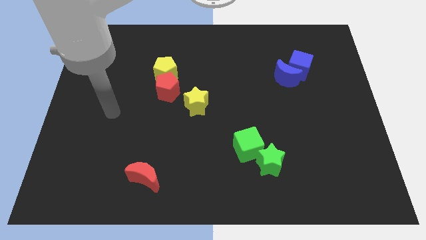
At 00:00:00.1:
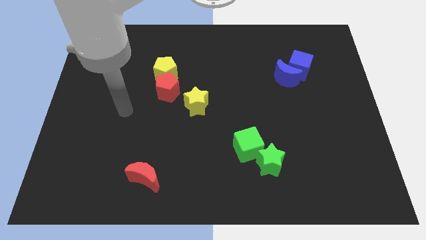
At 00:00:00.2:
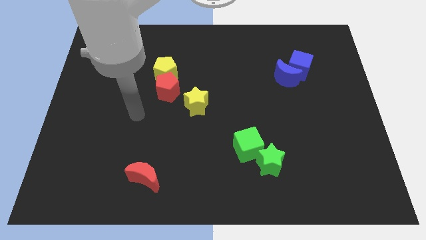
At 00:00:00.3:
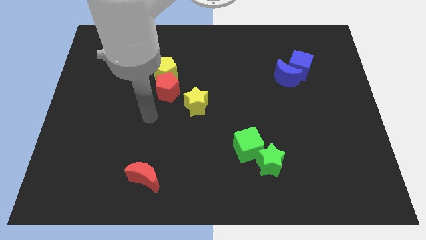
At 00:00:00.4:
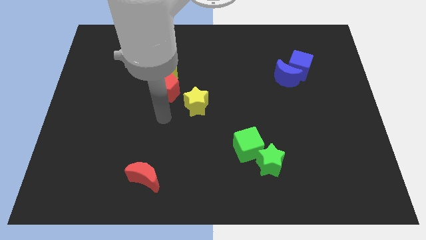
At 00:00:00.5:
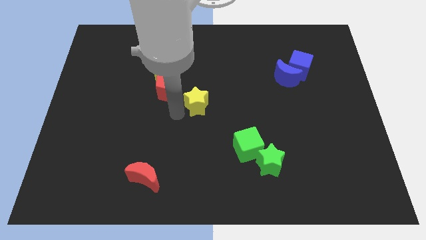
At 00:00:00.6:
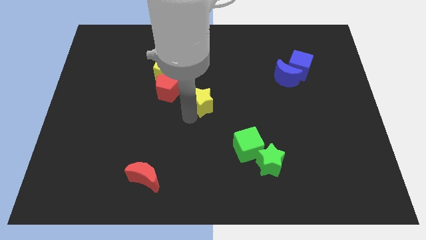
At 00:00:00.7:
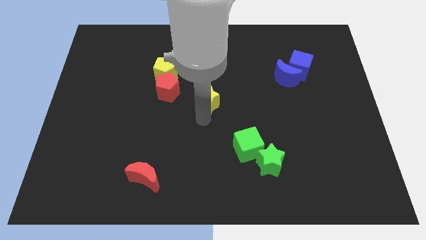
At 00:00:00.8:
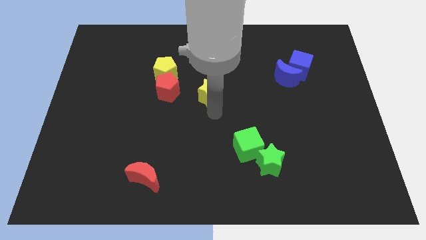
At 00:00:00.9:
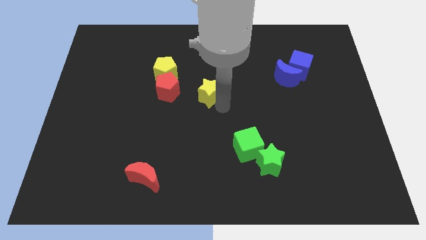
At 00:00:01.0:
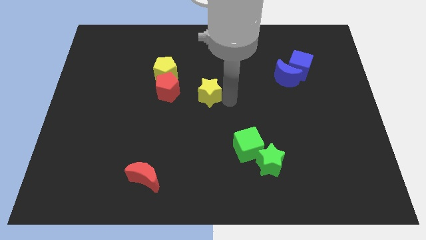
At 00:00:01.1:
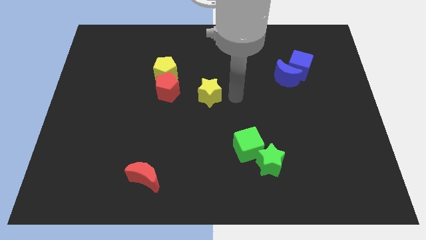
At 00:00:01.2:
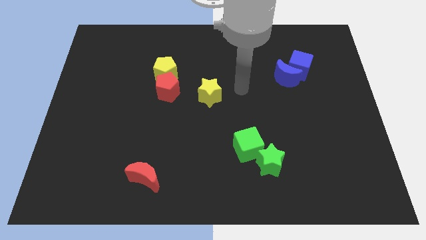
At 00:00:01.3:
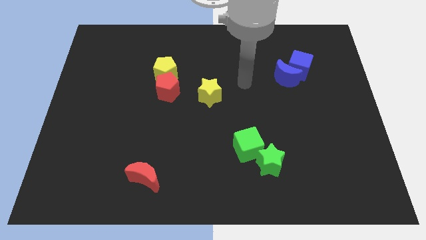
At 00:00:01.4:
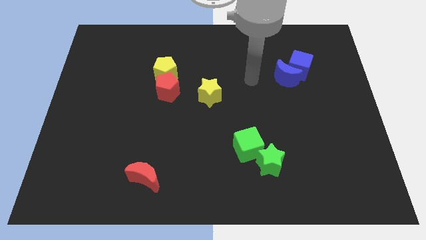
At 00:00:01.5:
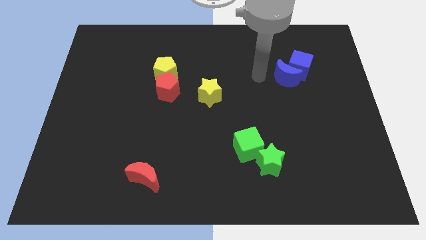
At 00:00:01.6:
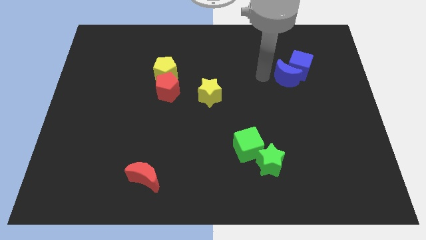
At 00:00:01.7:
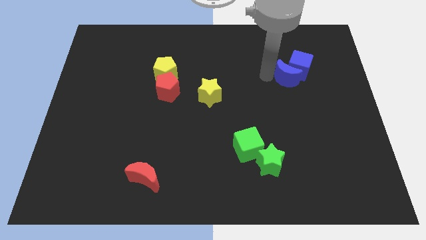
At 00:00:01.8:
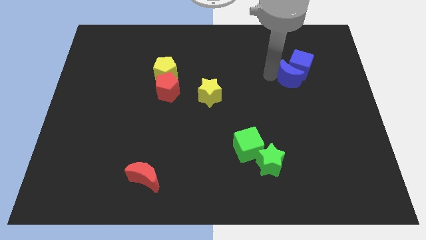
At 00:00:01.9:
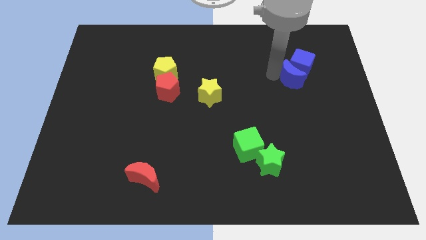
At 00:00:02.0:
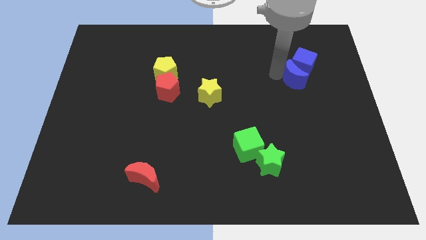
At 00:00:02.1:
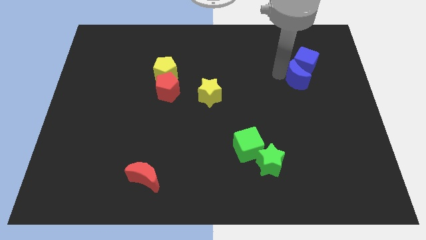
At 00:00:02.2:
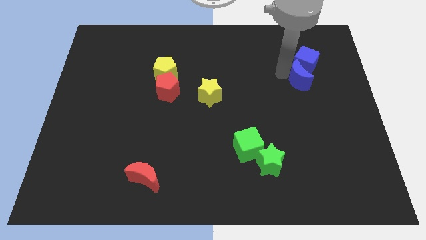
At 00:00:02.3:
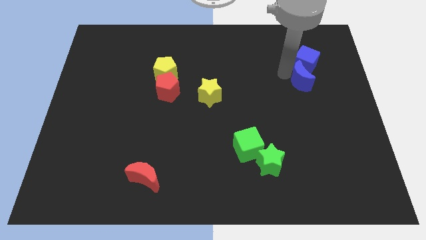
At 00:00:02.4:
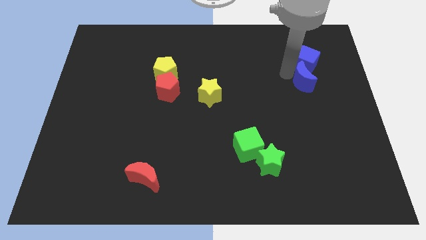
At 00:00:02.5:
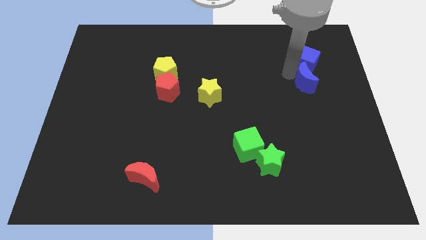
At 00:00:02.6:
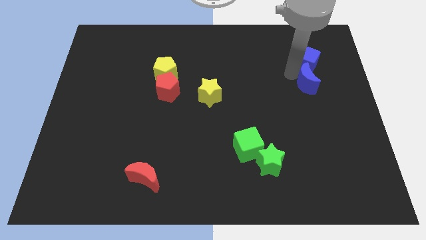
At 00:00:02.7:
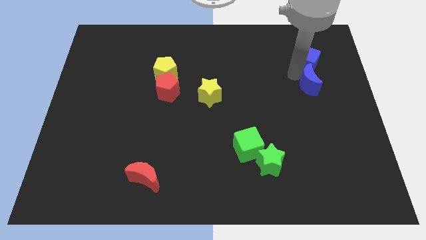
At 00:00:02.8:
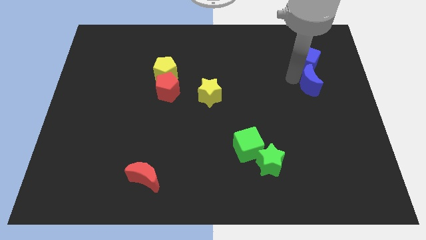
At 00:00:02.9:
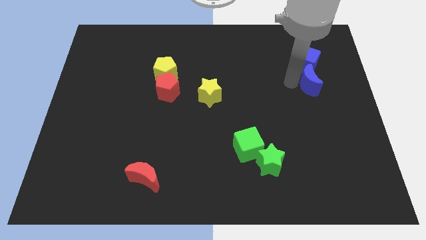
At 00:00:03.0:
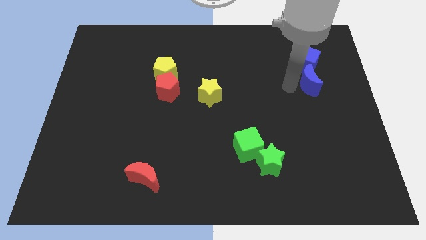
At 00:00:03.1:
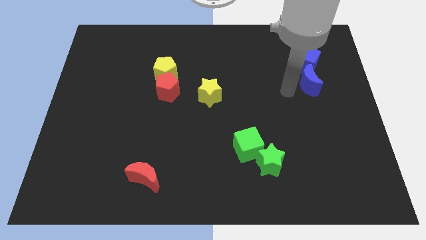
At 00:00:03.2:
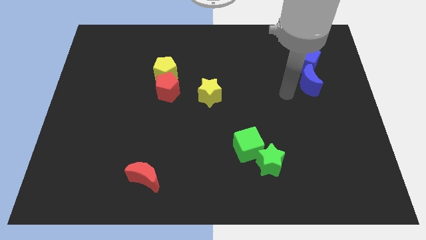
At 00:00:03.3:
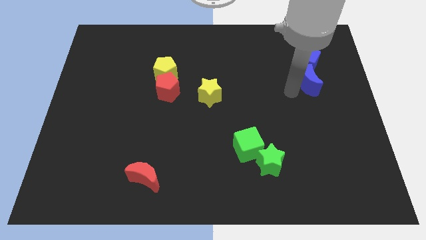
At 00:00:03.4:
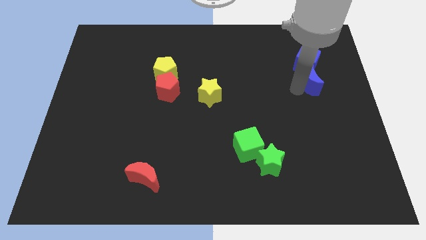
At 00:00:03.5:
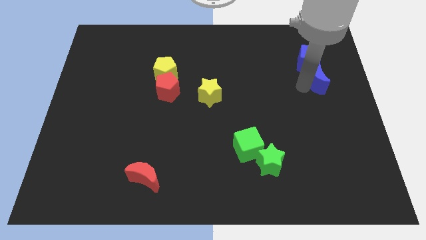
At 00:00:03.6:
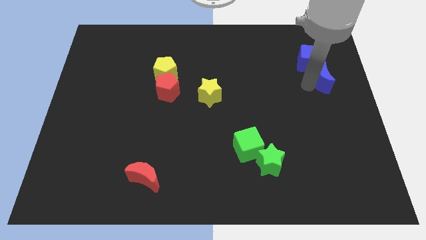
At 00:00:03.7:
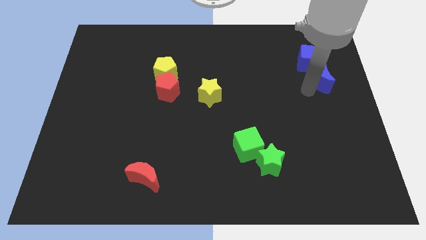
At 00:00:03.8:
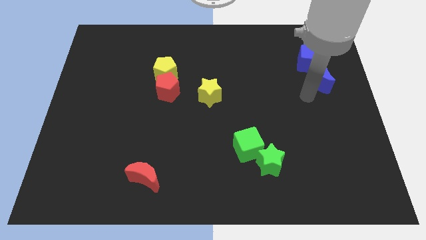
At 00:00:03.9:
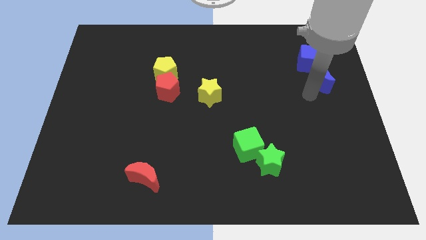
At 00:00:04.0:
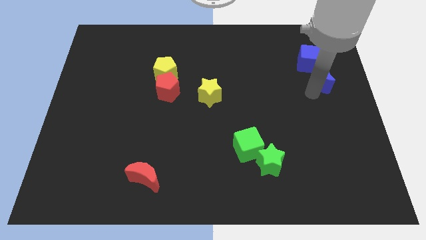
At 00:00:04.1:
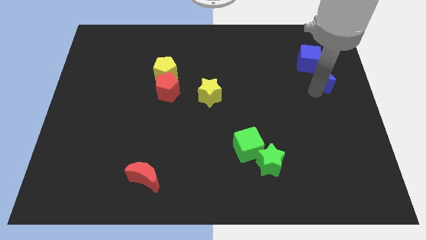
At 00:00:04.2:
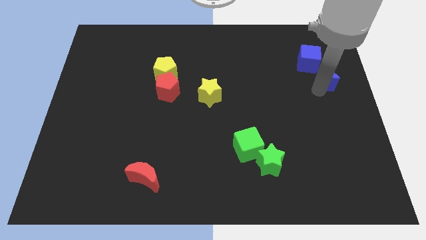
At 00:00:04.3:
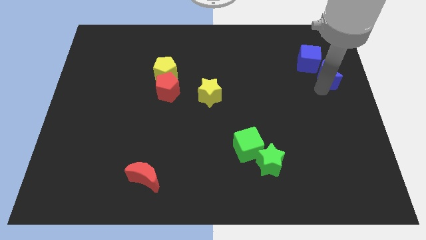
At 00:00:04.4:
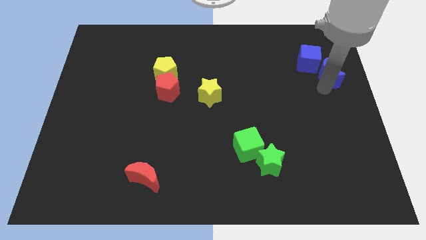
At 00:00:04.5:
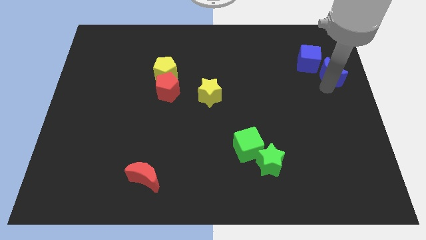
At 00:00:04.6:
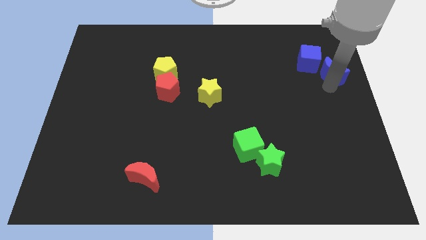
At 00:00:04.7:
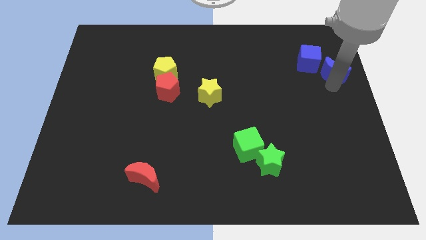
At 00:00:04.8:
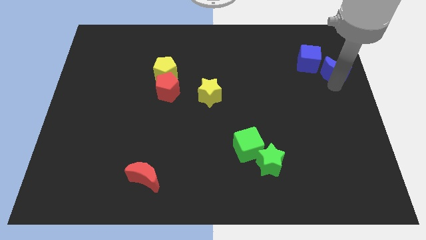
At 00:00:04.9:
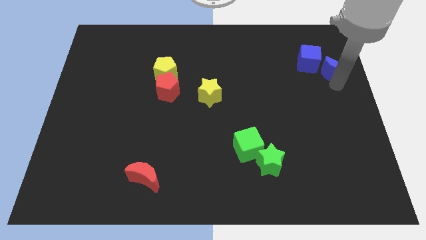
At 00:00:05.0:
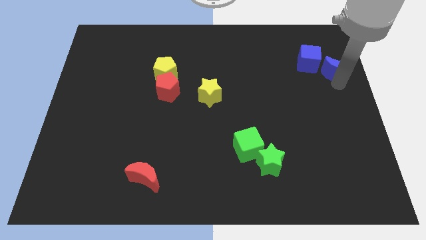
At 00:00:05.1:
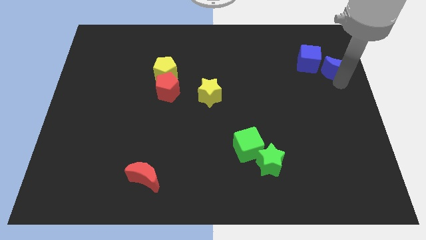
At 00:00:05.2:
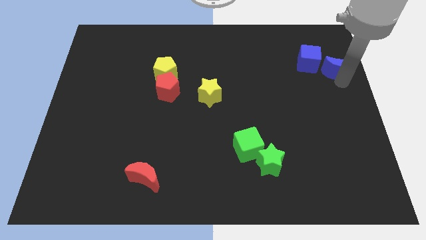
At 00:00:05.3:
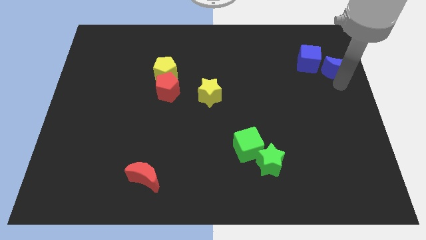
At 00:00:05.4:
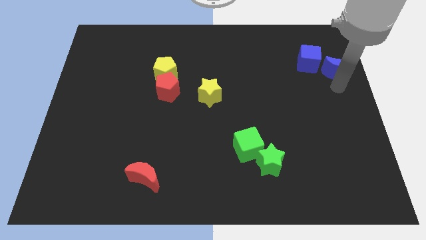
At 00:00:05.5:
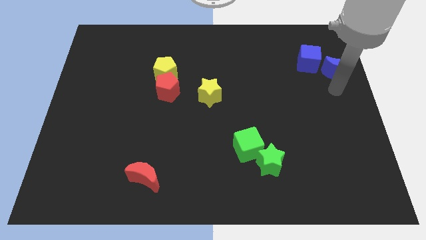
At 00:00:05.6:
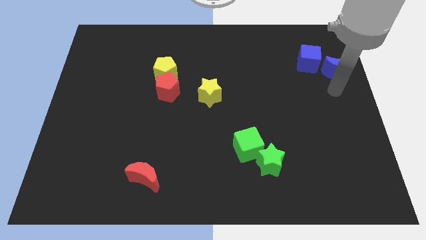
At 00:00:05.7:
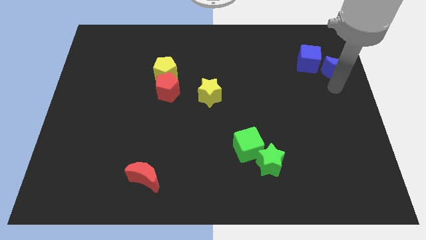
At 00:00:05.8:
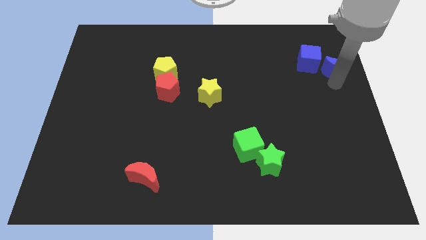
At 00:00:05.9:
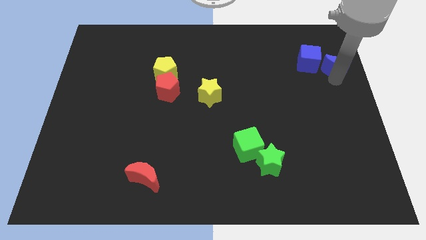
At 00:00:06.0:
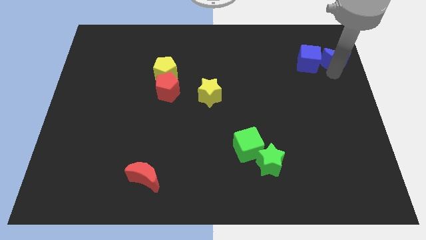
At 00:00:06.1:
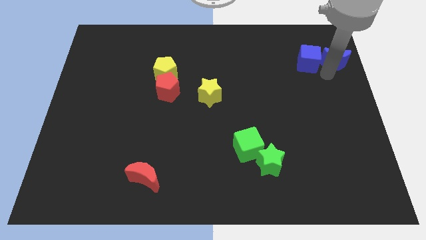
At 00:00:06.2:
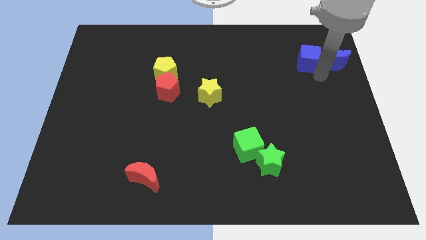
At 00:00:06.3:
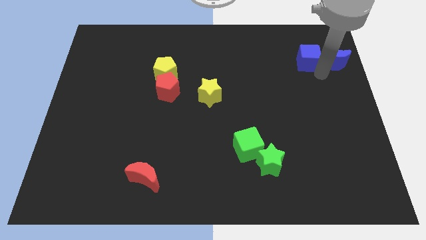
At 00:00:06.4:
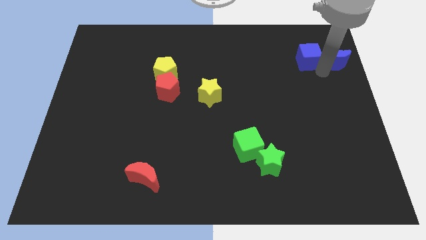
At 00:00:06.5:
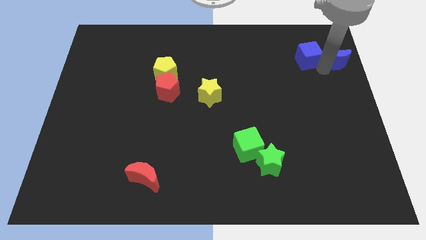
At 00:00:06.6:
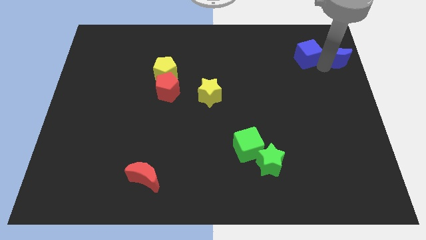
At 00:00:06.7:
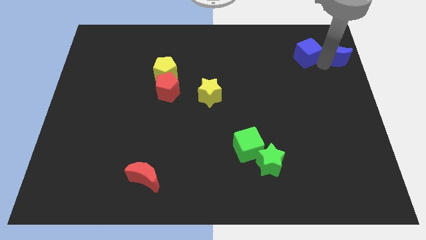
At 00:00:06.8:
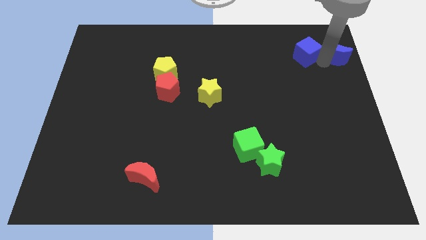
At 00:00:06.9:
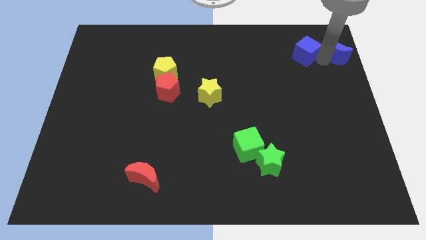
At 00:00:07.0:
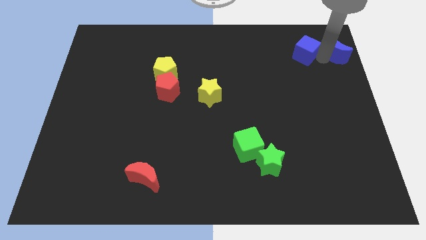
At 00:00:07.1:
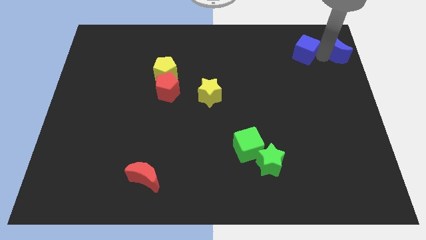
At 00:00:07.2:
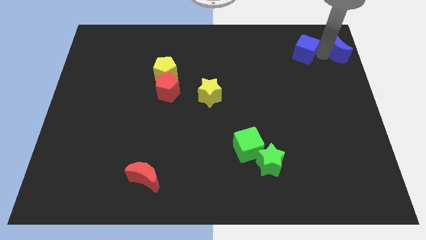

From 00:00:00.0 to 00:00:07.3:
push the blue moon to the top right corner

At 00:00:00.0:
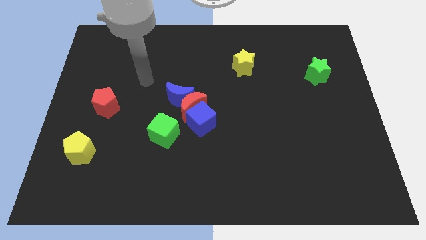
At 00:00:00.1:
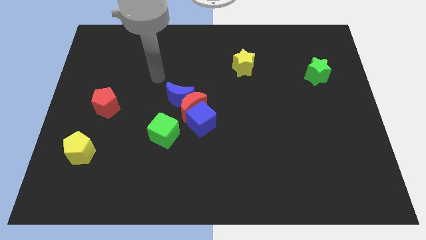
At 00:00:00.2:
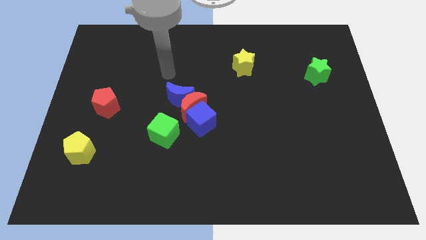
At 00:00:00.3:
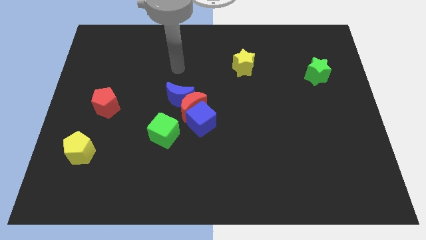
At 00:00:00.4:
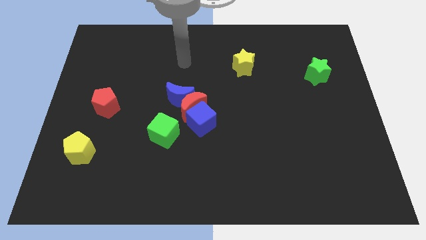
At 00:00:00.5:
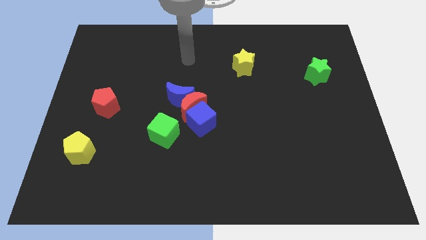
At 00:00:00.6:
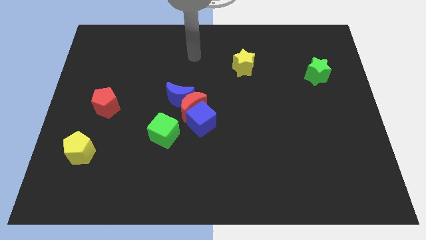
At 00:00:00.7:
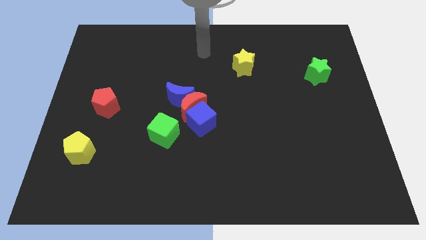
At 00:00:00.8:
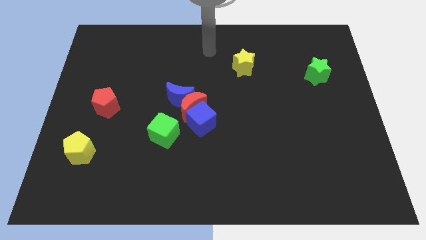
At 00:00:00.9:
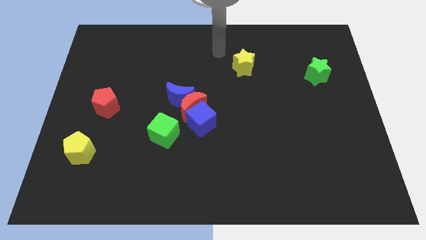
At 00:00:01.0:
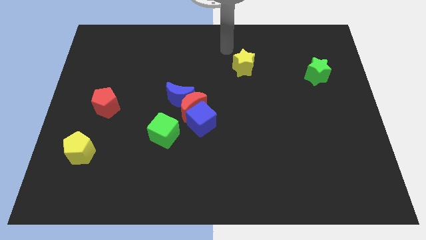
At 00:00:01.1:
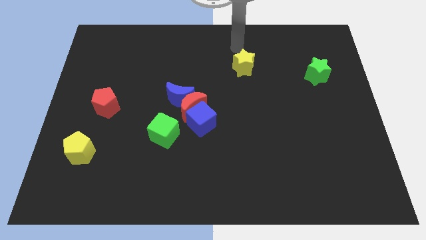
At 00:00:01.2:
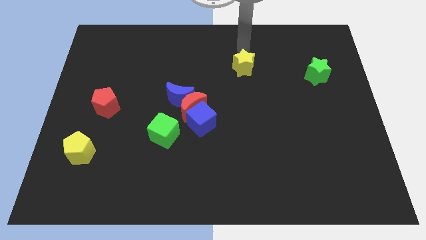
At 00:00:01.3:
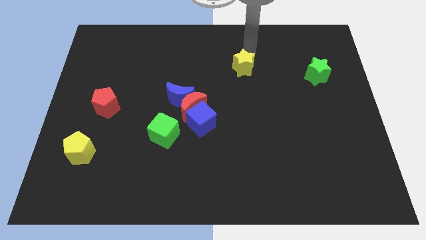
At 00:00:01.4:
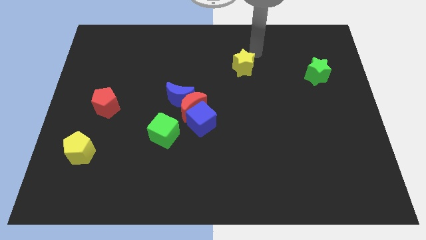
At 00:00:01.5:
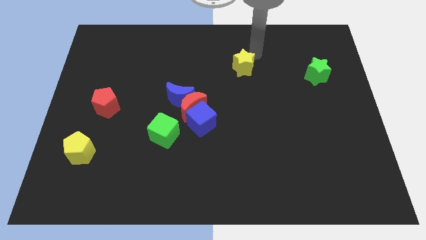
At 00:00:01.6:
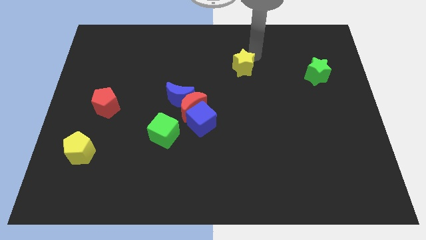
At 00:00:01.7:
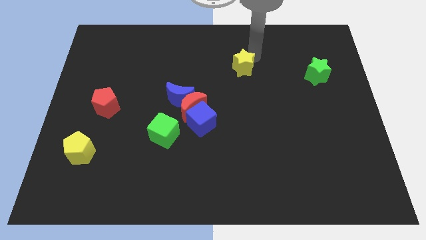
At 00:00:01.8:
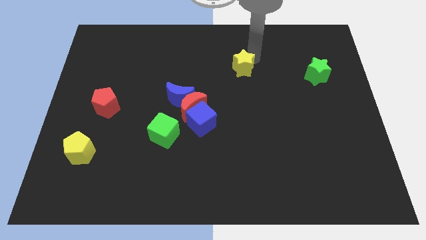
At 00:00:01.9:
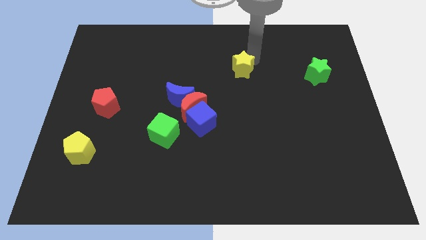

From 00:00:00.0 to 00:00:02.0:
push the yellow star to the center of the board
